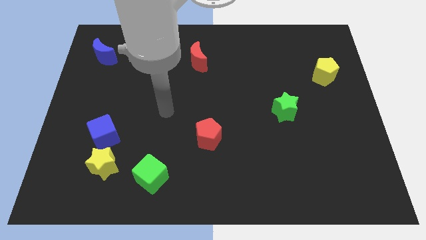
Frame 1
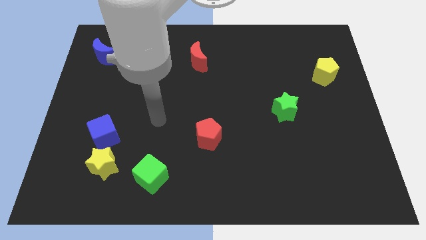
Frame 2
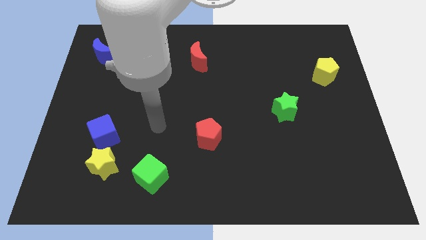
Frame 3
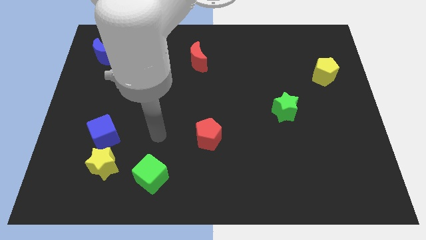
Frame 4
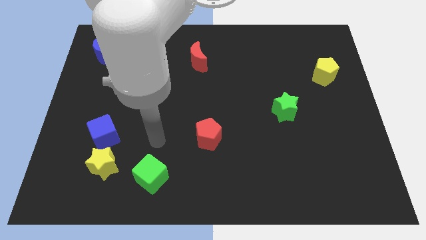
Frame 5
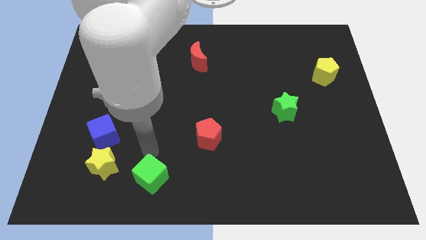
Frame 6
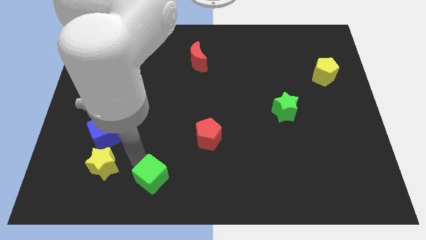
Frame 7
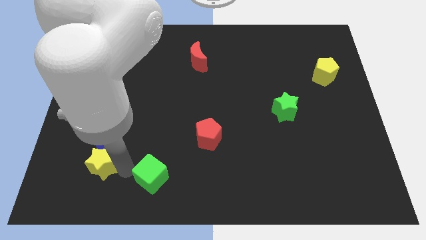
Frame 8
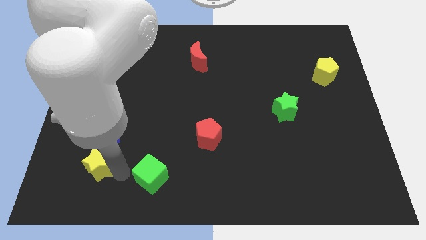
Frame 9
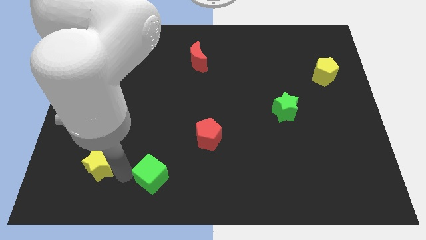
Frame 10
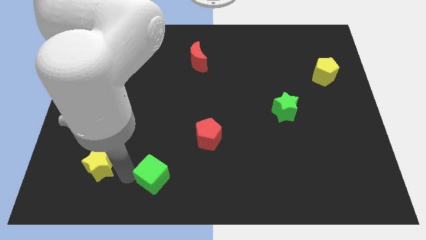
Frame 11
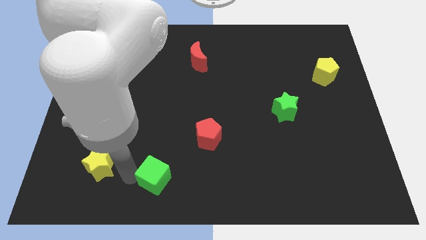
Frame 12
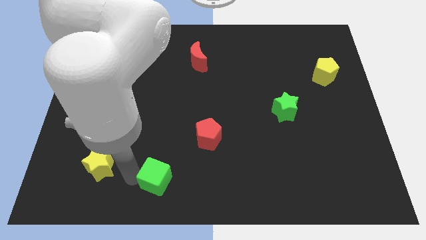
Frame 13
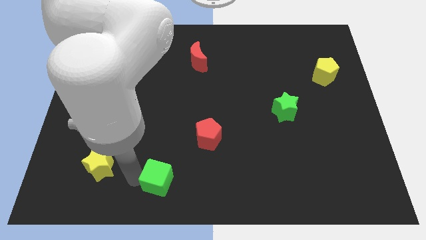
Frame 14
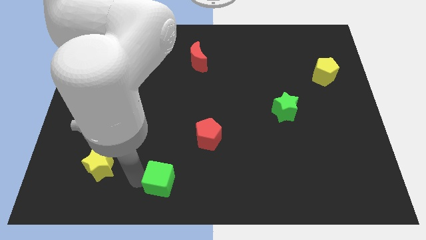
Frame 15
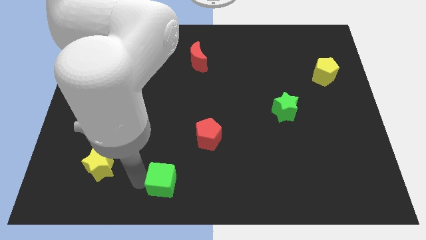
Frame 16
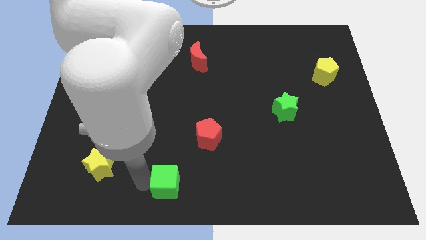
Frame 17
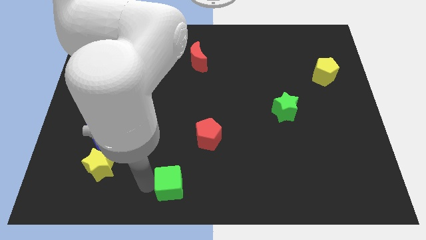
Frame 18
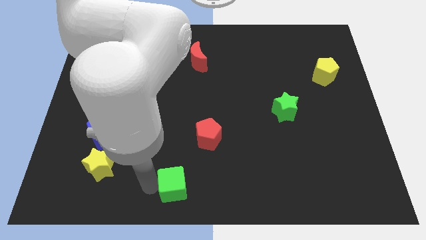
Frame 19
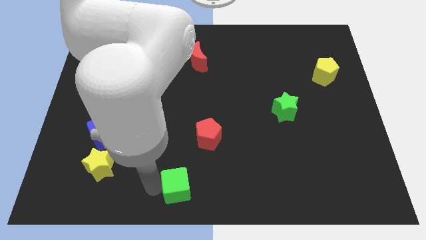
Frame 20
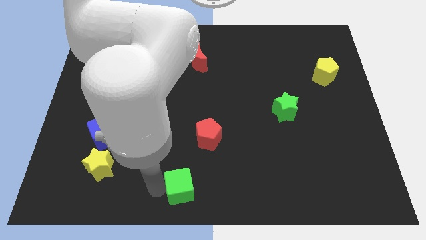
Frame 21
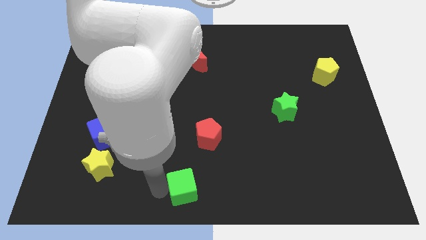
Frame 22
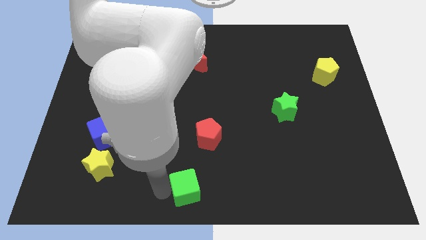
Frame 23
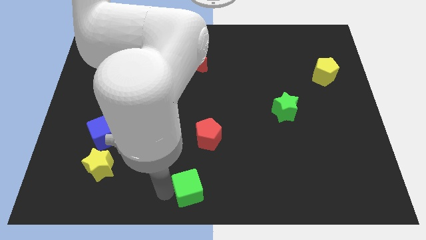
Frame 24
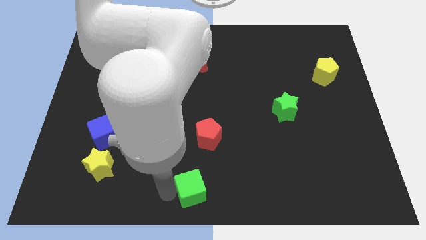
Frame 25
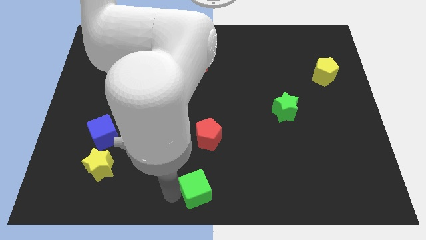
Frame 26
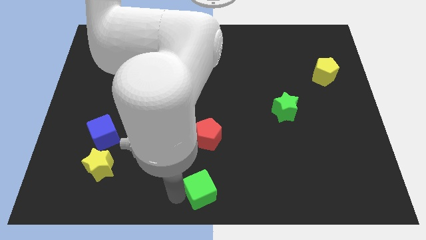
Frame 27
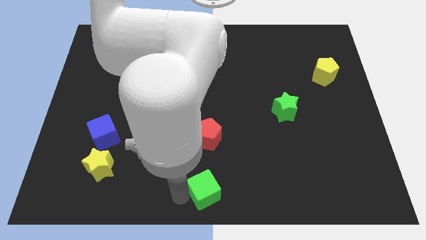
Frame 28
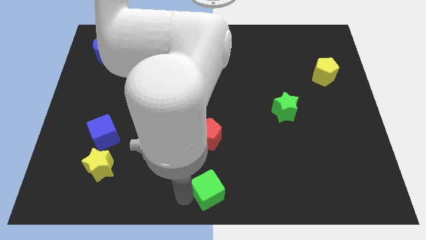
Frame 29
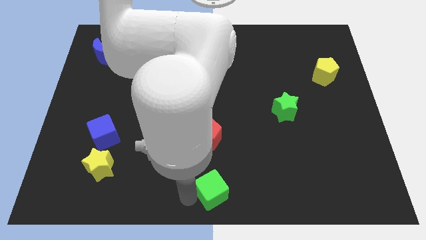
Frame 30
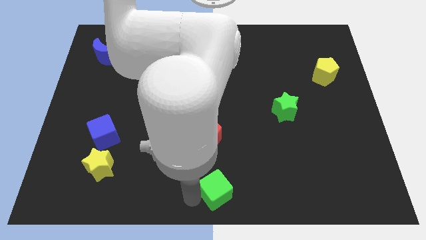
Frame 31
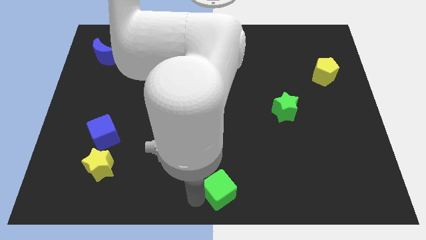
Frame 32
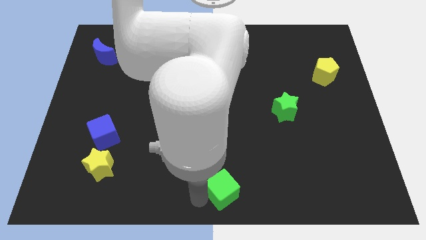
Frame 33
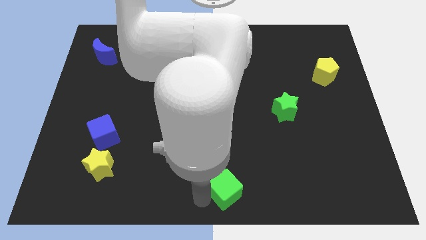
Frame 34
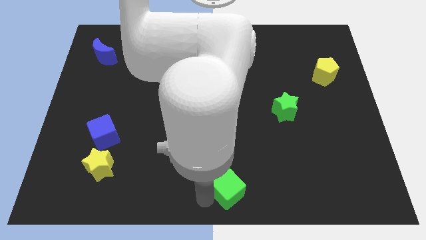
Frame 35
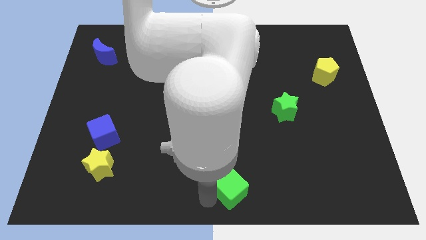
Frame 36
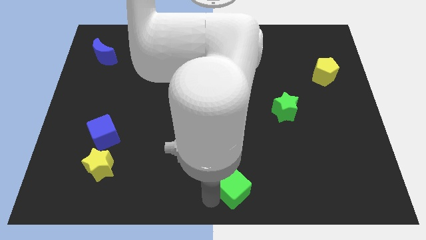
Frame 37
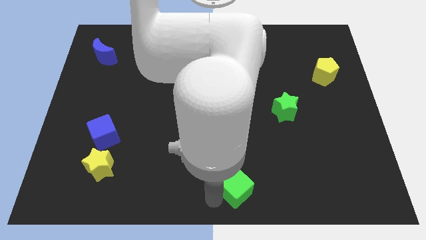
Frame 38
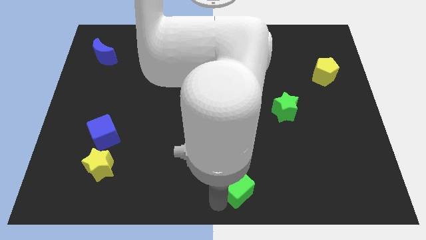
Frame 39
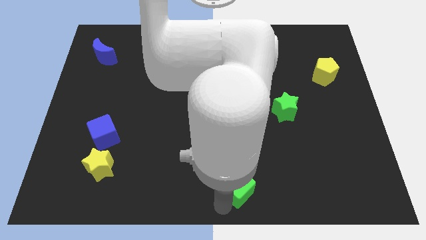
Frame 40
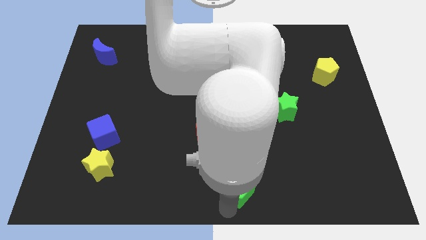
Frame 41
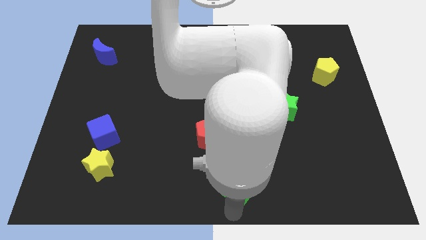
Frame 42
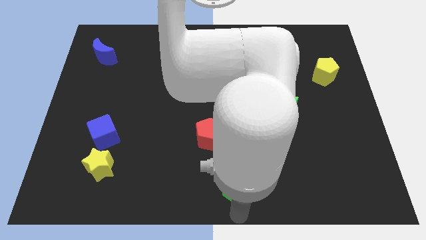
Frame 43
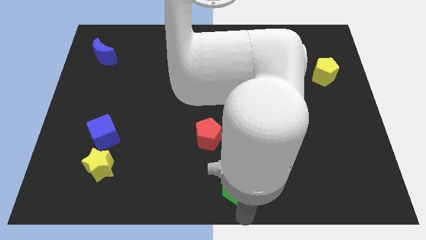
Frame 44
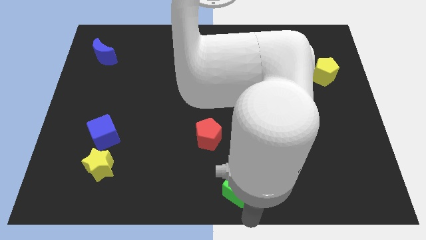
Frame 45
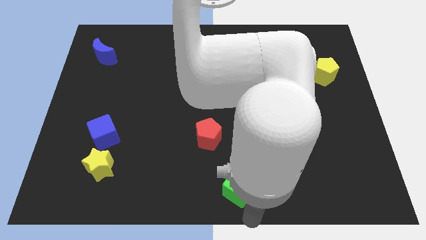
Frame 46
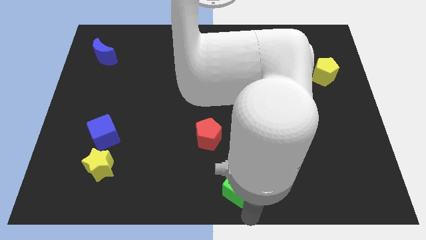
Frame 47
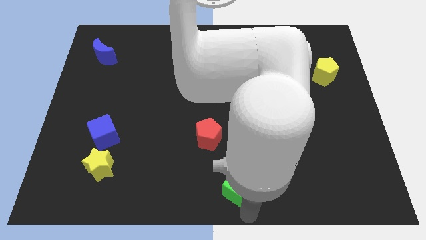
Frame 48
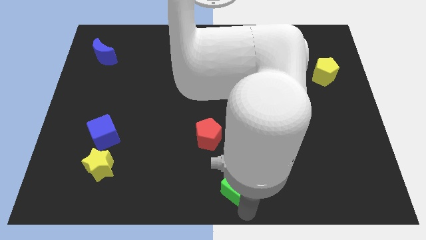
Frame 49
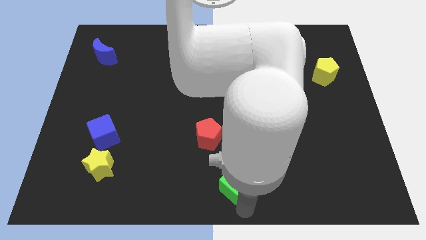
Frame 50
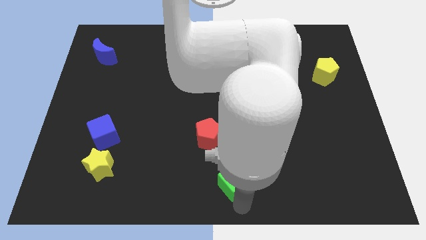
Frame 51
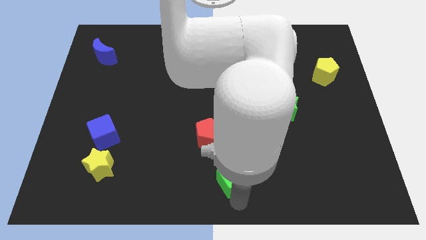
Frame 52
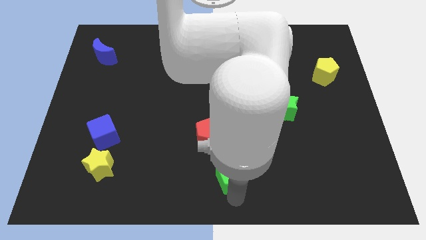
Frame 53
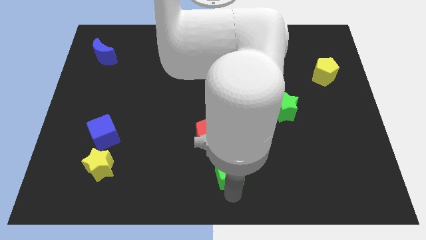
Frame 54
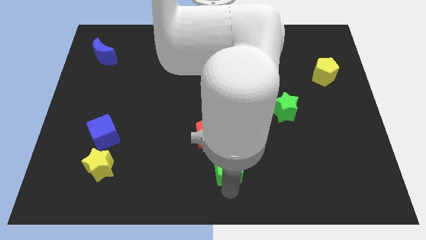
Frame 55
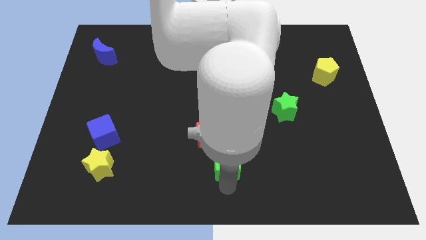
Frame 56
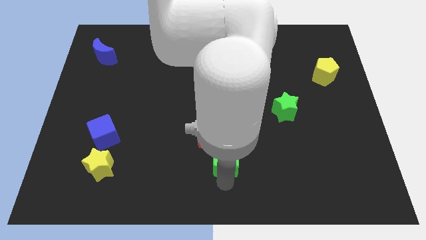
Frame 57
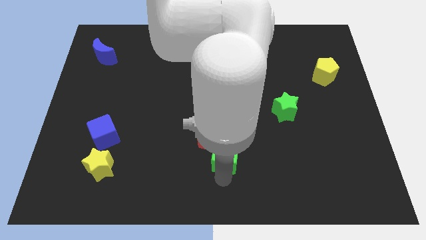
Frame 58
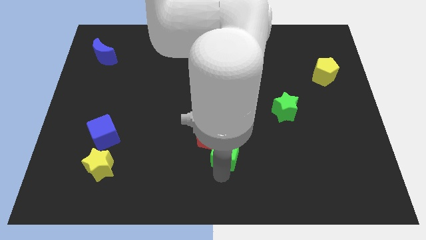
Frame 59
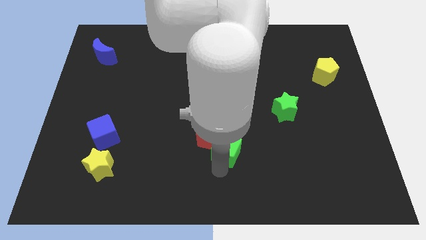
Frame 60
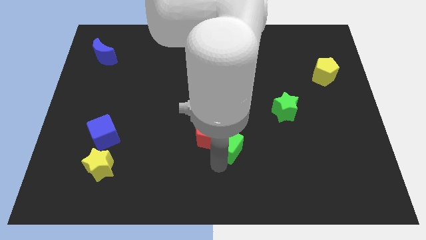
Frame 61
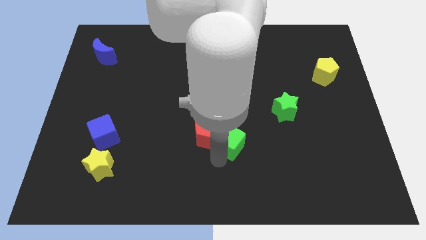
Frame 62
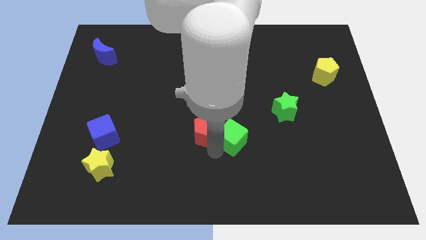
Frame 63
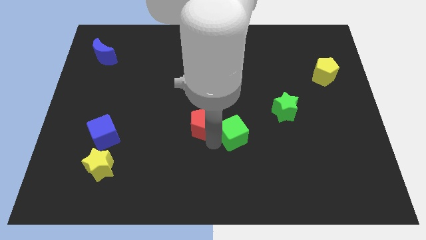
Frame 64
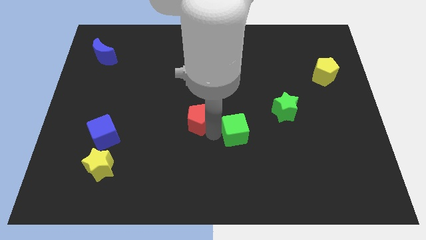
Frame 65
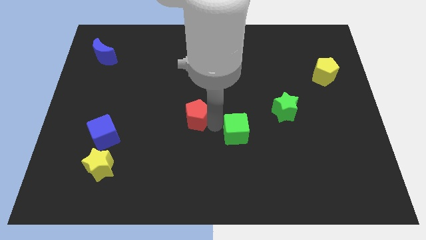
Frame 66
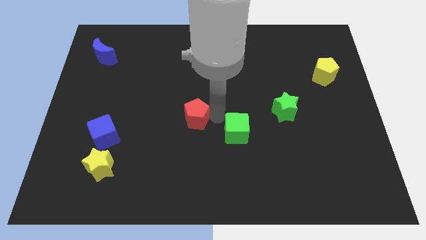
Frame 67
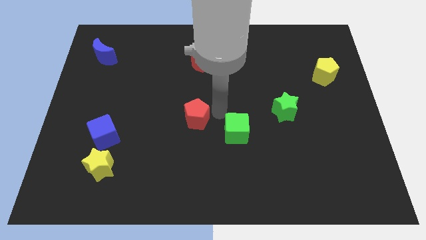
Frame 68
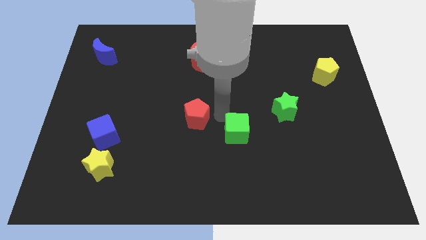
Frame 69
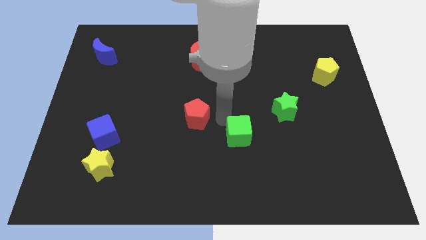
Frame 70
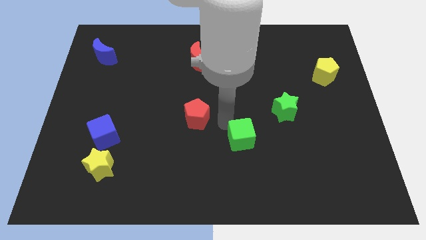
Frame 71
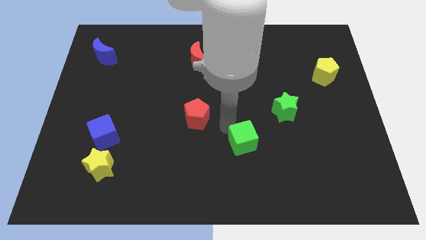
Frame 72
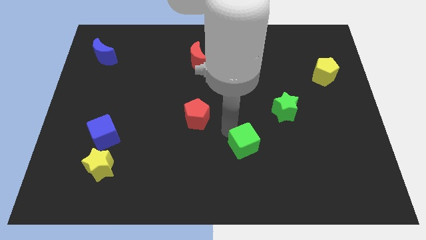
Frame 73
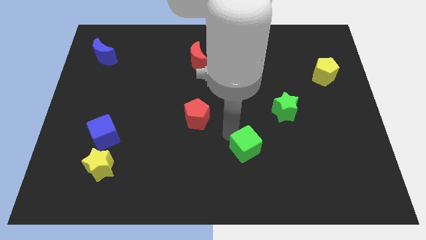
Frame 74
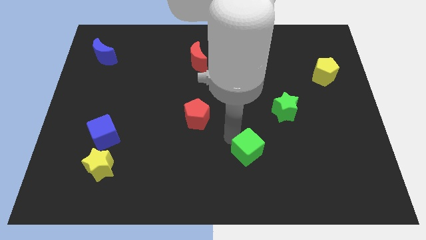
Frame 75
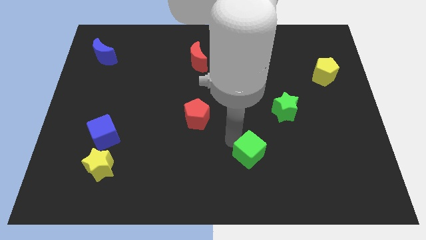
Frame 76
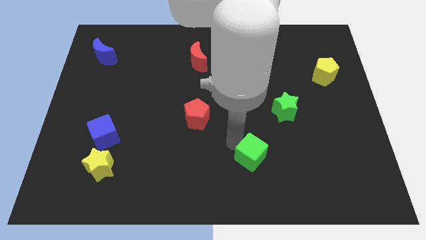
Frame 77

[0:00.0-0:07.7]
push the green cube right
